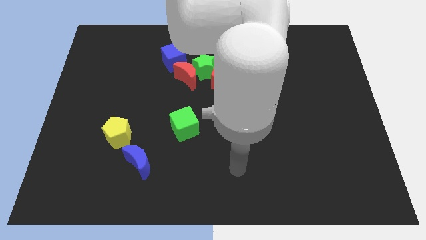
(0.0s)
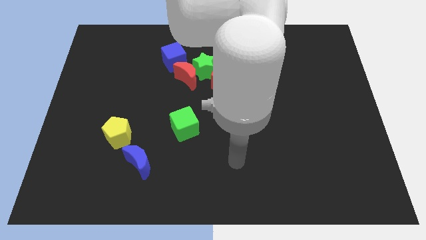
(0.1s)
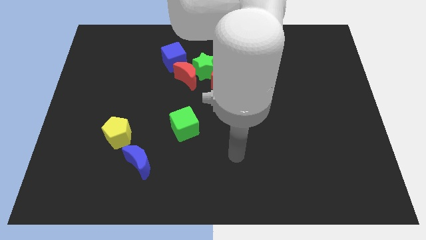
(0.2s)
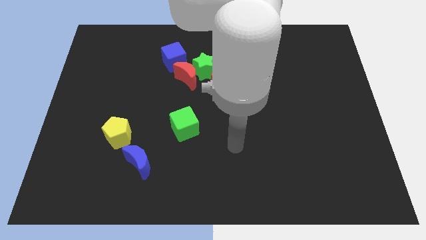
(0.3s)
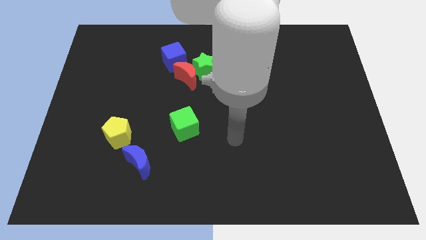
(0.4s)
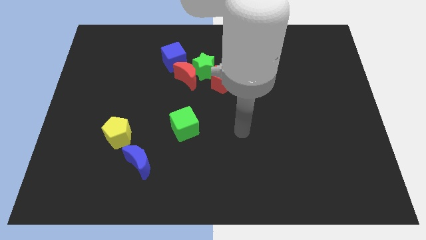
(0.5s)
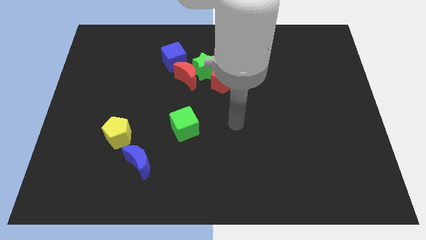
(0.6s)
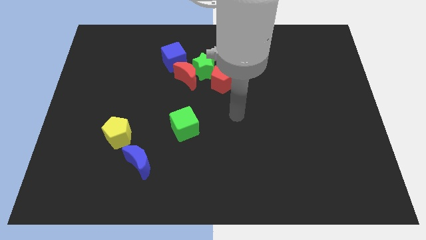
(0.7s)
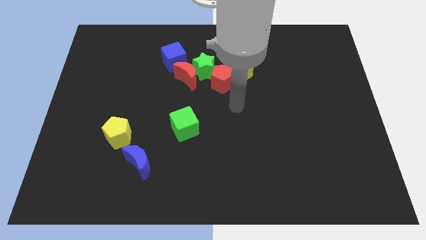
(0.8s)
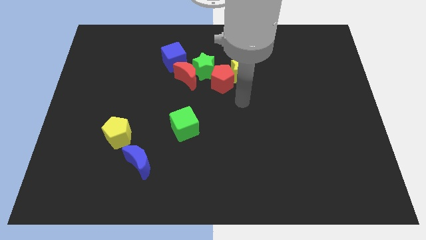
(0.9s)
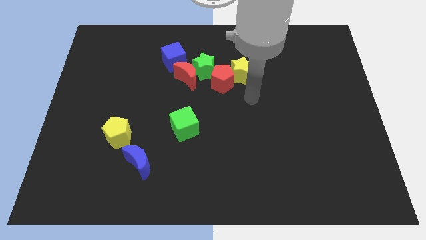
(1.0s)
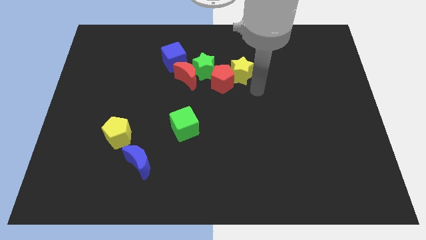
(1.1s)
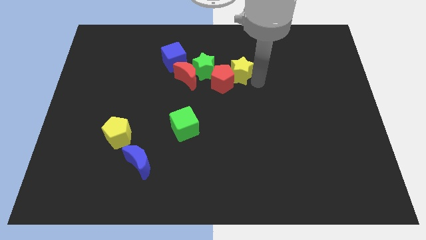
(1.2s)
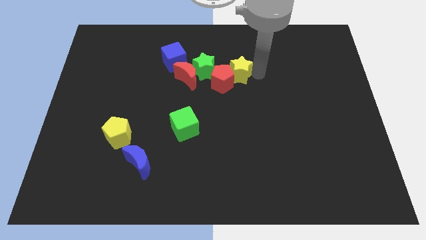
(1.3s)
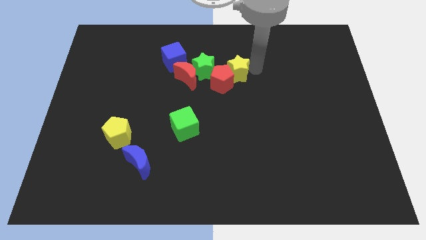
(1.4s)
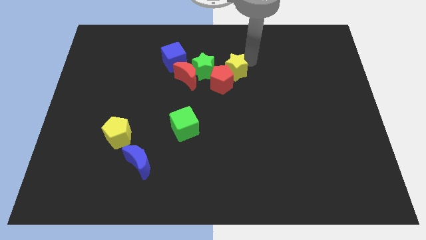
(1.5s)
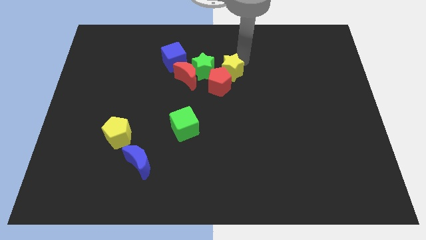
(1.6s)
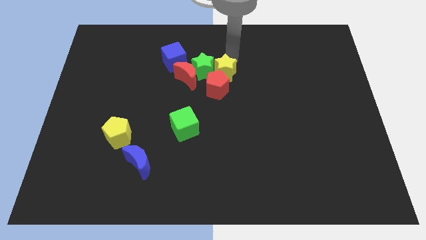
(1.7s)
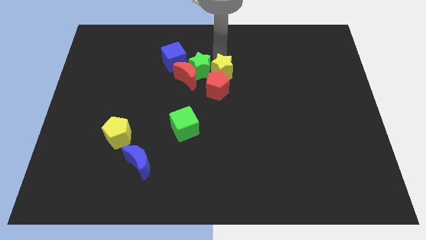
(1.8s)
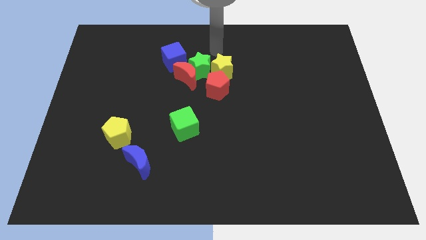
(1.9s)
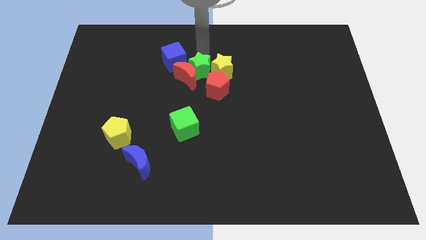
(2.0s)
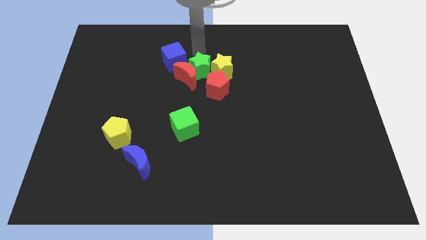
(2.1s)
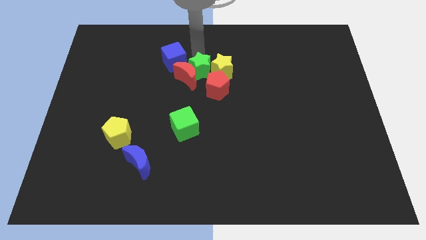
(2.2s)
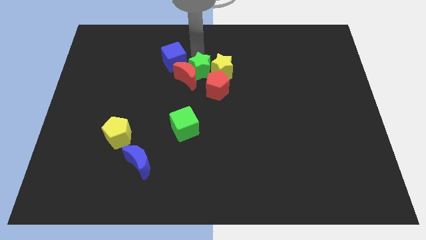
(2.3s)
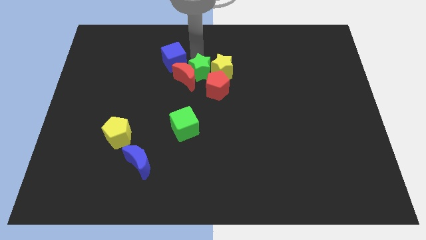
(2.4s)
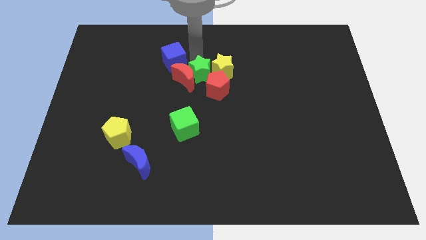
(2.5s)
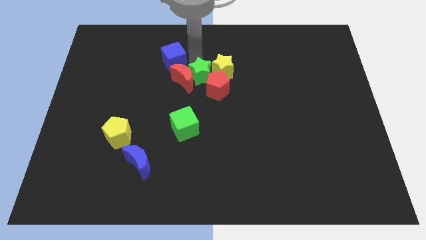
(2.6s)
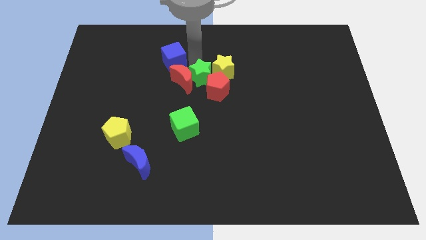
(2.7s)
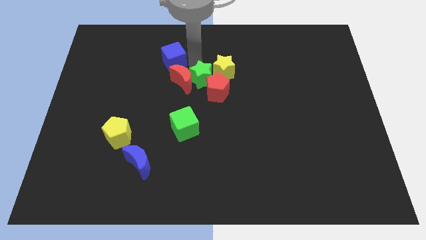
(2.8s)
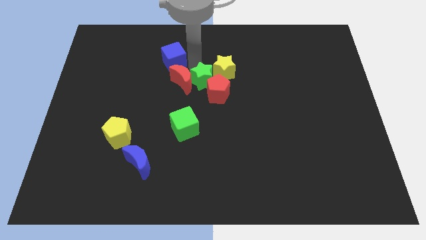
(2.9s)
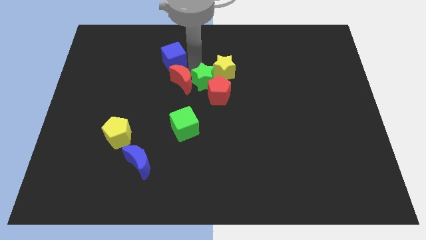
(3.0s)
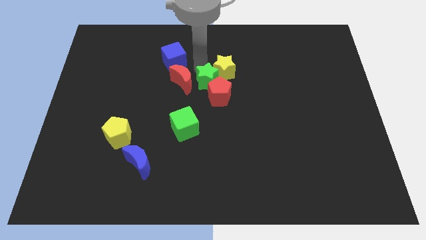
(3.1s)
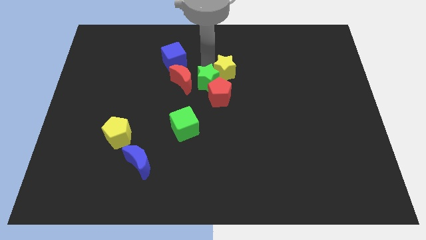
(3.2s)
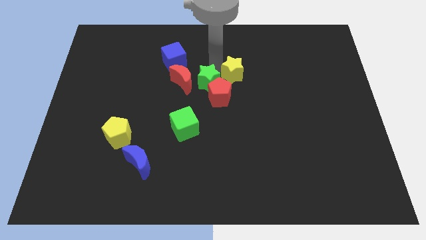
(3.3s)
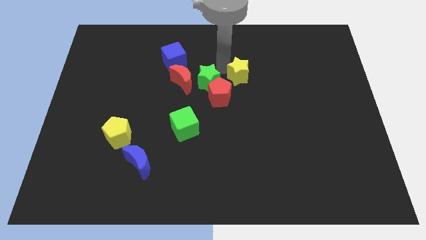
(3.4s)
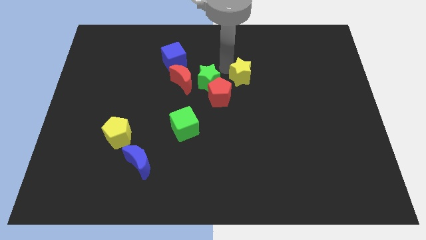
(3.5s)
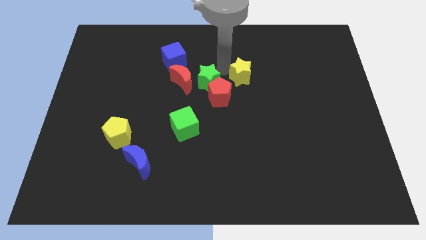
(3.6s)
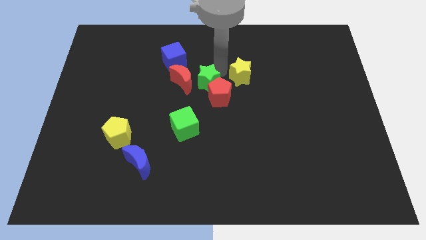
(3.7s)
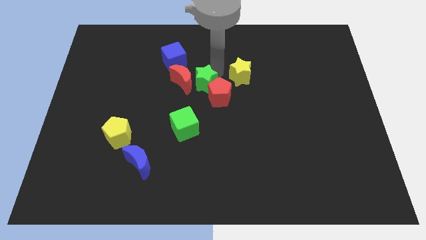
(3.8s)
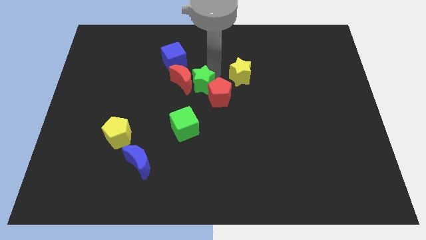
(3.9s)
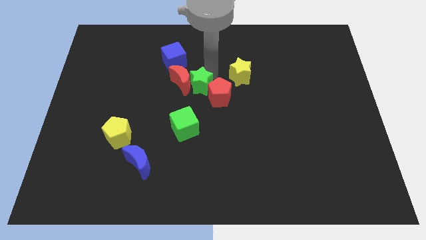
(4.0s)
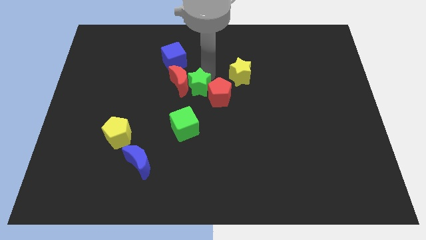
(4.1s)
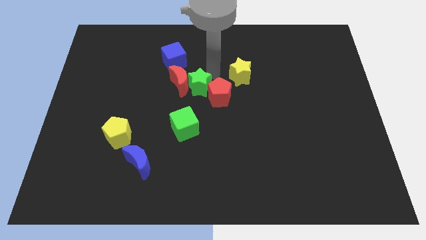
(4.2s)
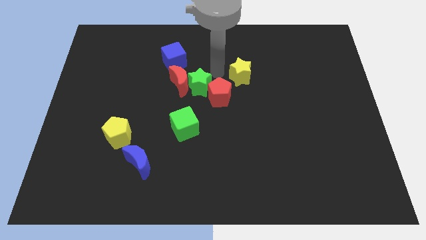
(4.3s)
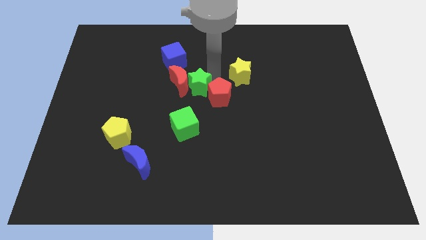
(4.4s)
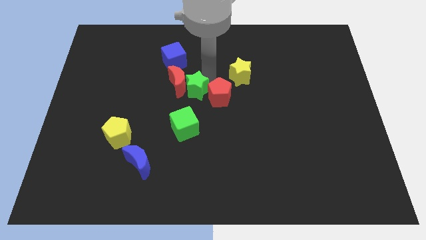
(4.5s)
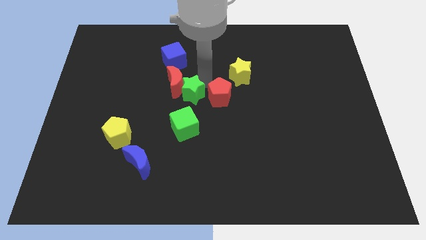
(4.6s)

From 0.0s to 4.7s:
push the green star diagonally down and left somewhat

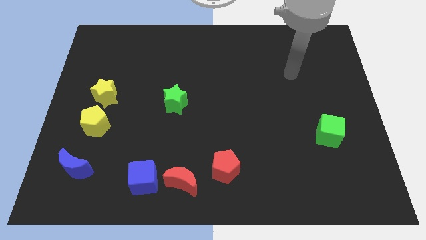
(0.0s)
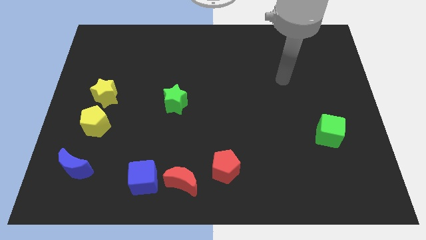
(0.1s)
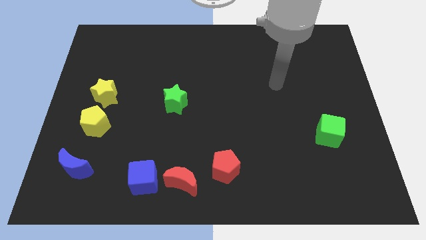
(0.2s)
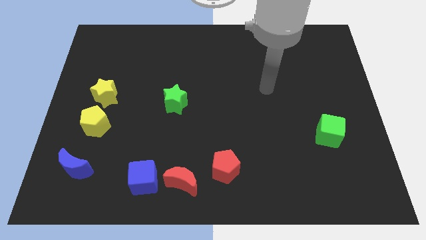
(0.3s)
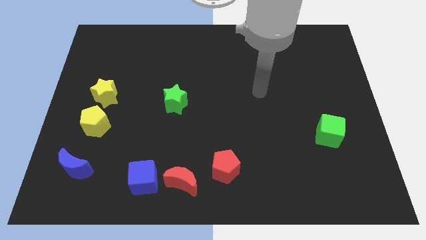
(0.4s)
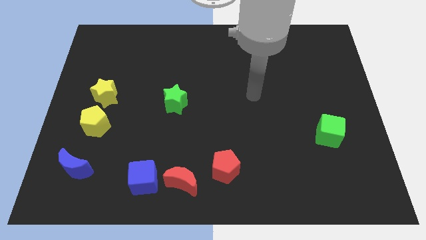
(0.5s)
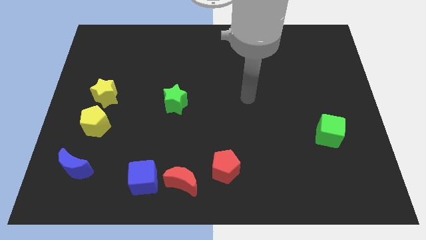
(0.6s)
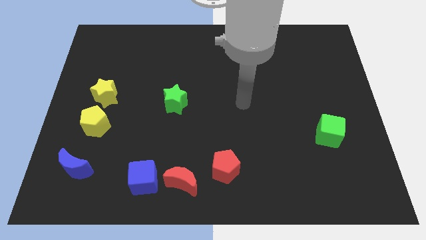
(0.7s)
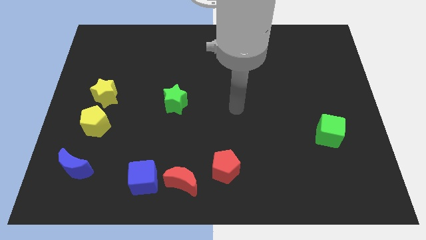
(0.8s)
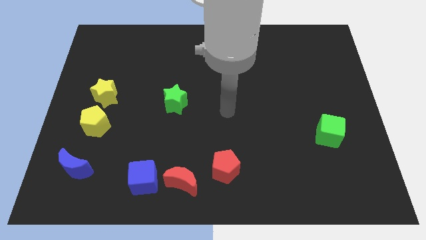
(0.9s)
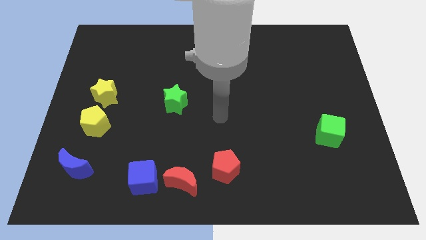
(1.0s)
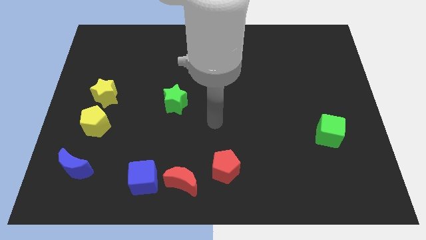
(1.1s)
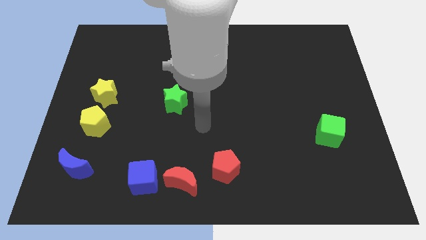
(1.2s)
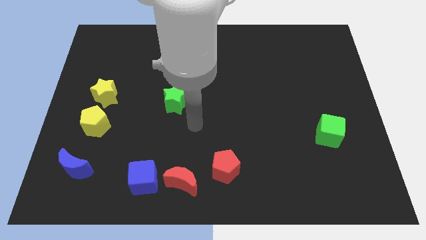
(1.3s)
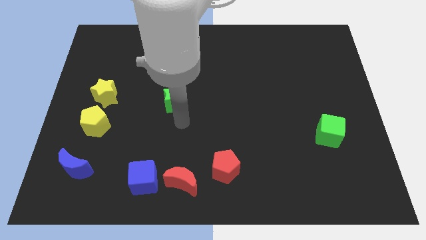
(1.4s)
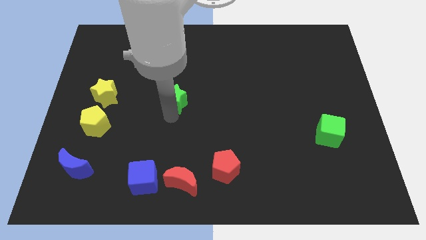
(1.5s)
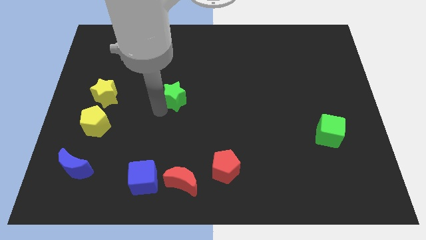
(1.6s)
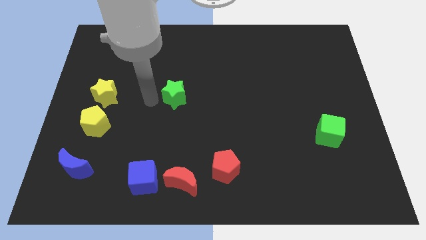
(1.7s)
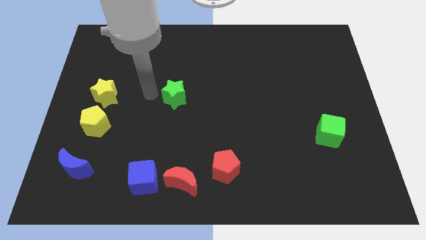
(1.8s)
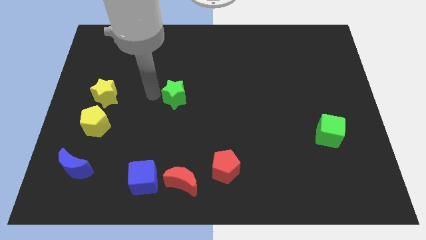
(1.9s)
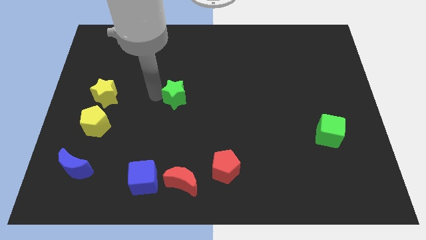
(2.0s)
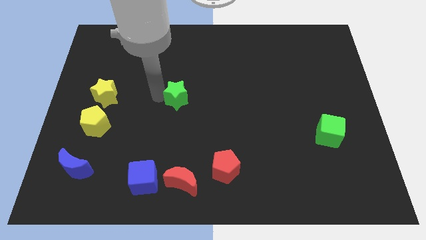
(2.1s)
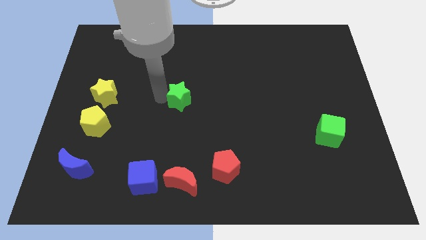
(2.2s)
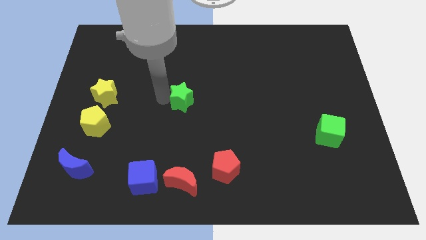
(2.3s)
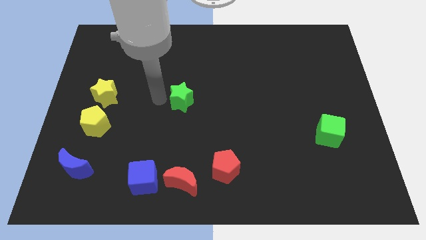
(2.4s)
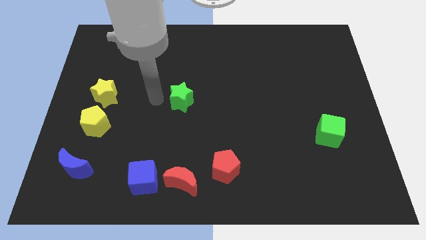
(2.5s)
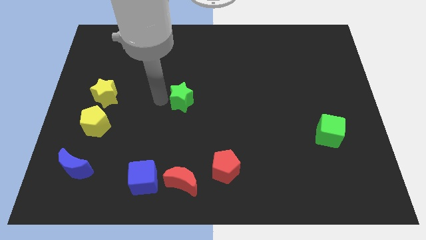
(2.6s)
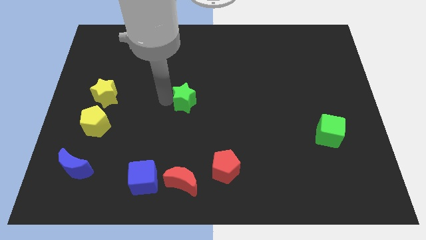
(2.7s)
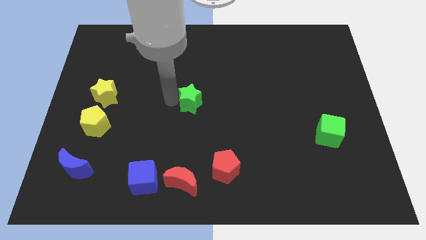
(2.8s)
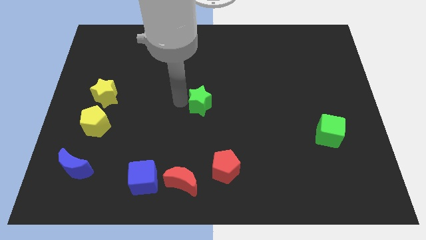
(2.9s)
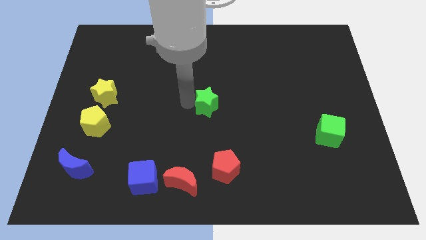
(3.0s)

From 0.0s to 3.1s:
push the green star a little to the right

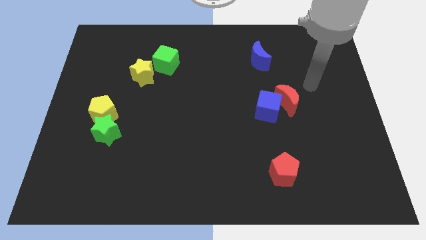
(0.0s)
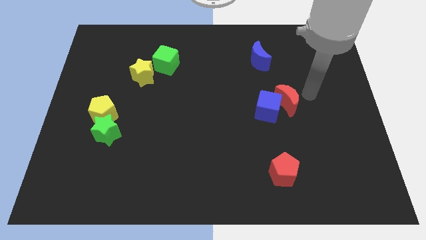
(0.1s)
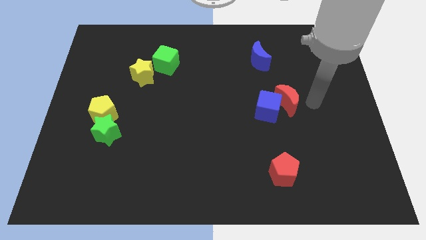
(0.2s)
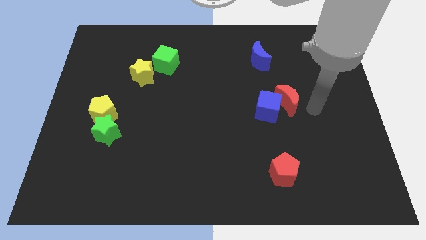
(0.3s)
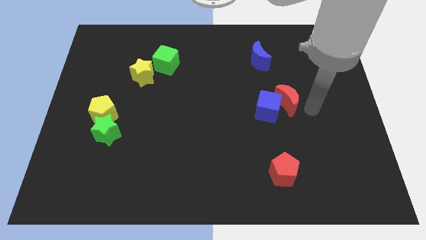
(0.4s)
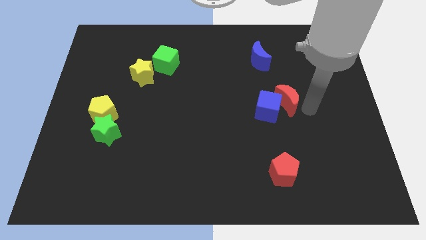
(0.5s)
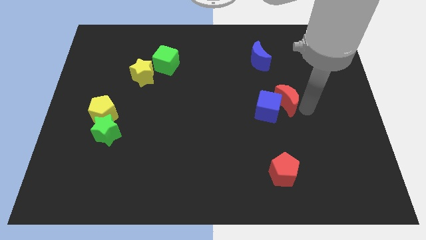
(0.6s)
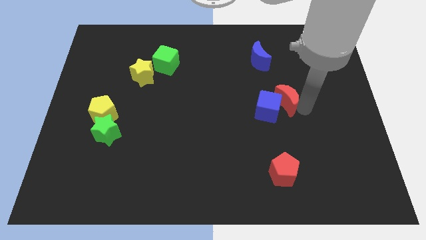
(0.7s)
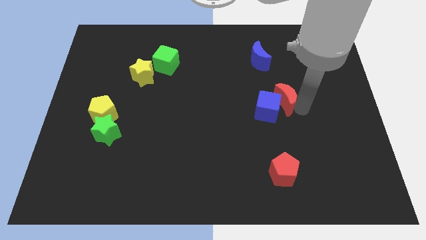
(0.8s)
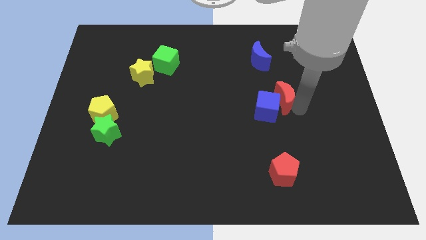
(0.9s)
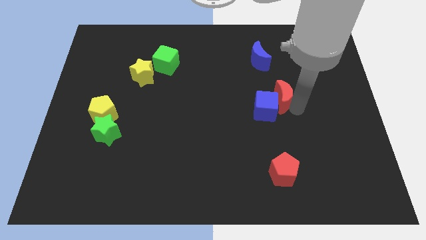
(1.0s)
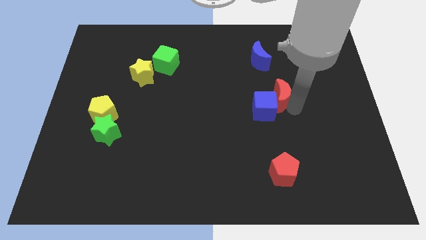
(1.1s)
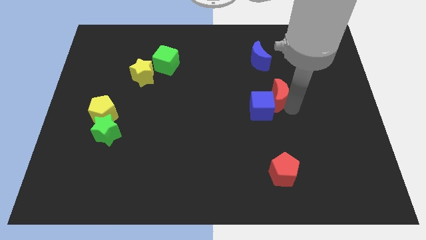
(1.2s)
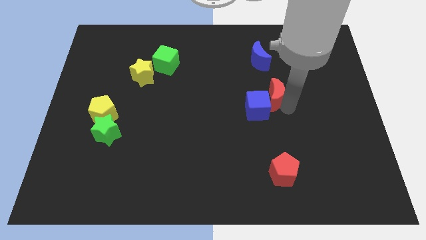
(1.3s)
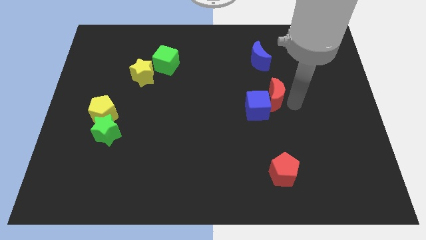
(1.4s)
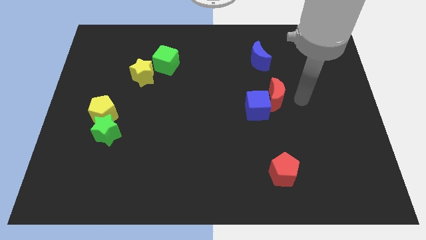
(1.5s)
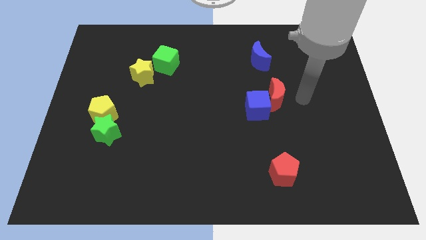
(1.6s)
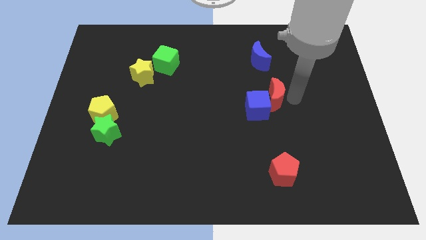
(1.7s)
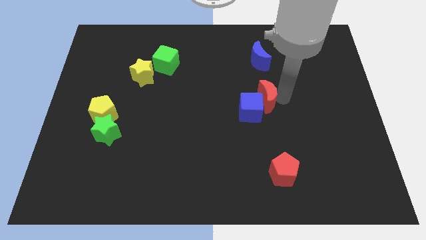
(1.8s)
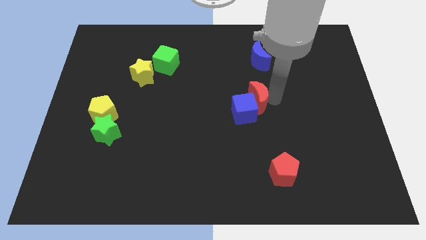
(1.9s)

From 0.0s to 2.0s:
slightly slide the red moon to the left
